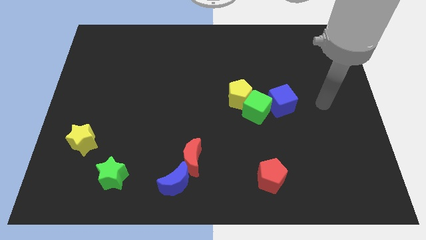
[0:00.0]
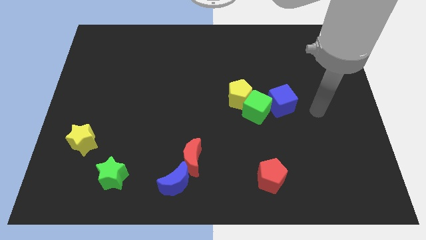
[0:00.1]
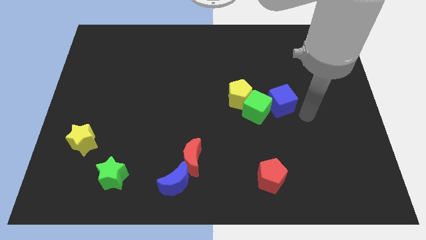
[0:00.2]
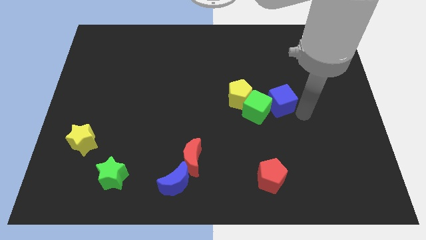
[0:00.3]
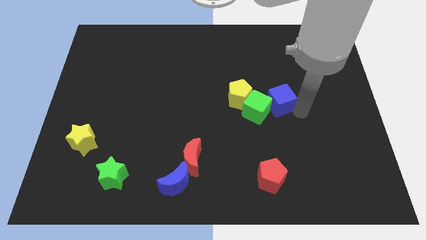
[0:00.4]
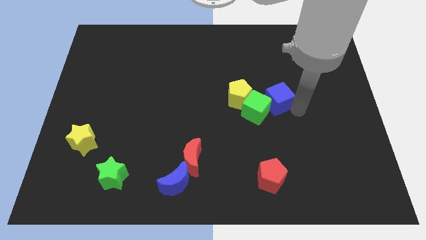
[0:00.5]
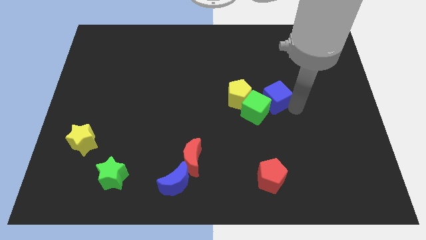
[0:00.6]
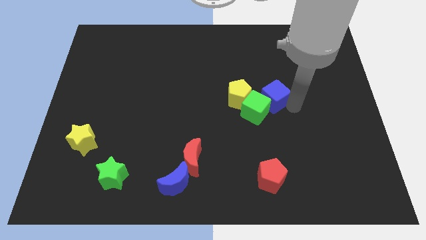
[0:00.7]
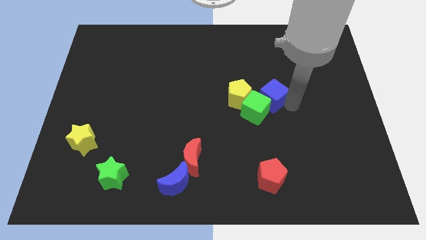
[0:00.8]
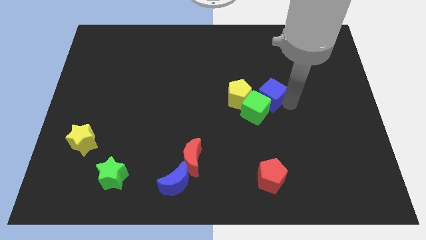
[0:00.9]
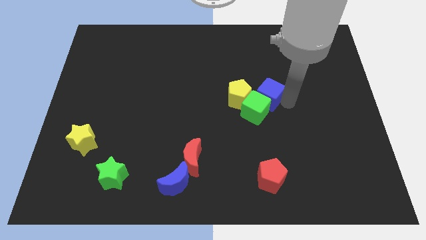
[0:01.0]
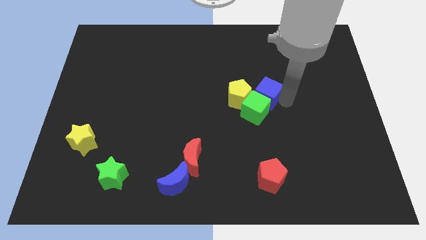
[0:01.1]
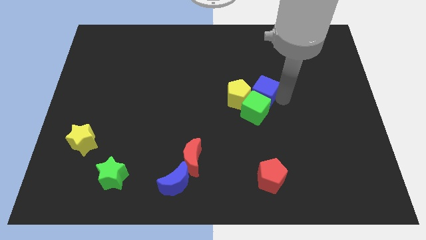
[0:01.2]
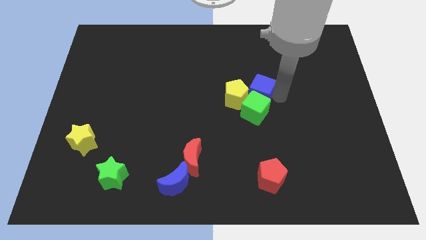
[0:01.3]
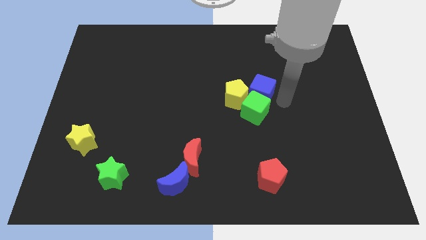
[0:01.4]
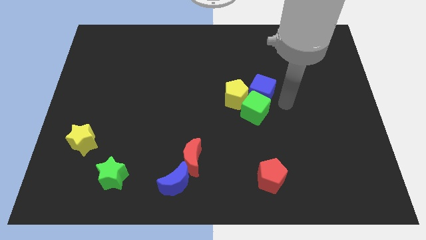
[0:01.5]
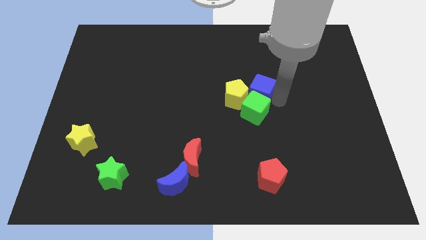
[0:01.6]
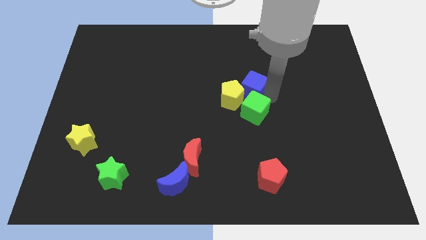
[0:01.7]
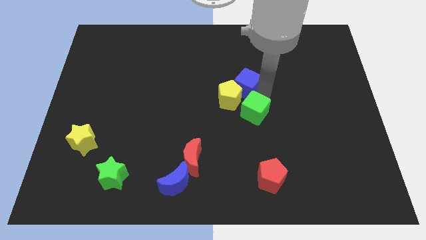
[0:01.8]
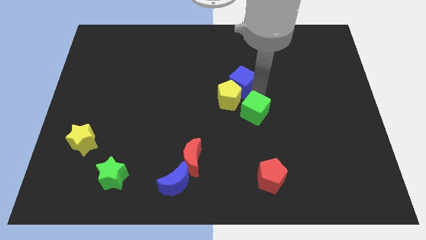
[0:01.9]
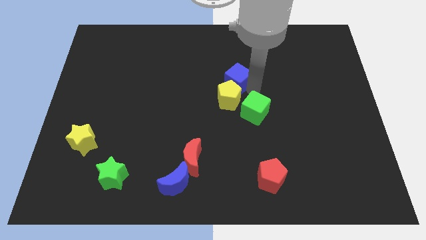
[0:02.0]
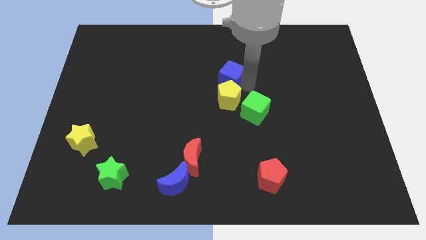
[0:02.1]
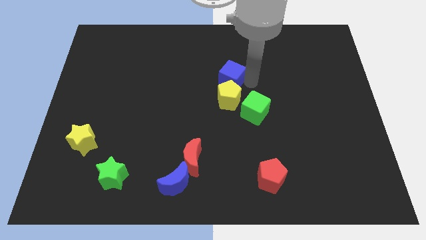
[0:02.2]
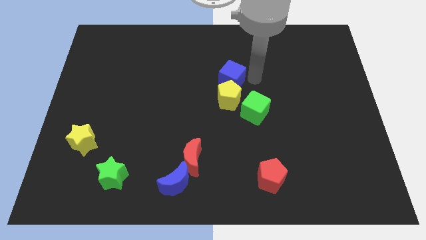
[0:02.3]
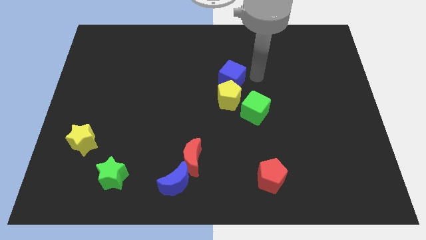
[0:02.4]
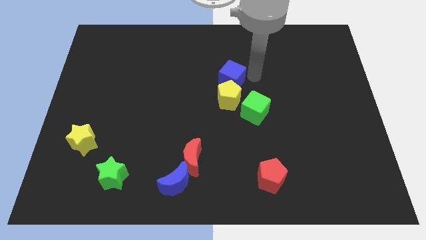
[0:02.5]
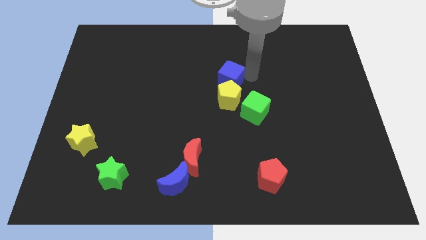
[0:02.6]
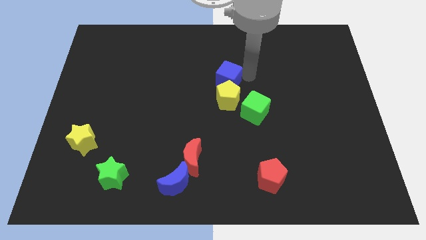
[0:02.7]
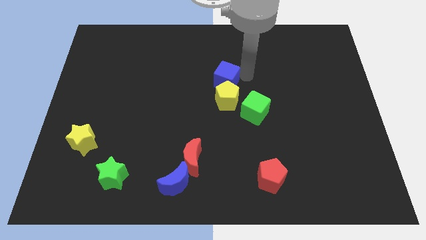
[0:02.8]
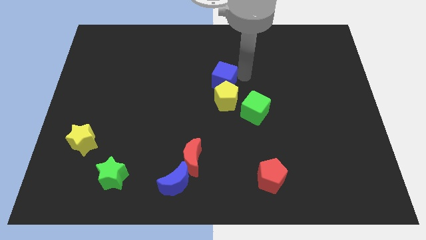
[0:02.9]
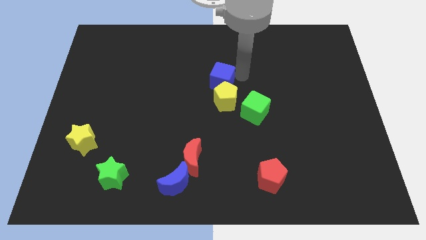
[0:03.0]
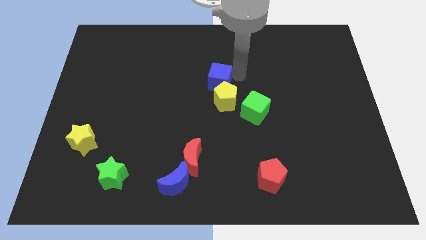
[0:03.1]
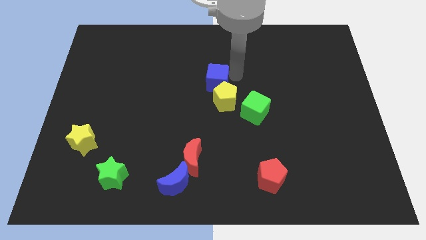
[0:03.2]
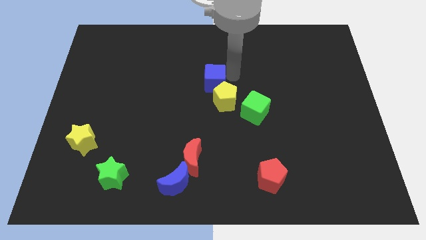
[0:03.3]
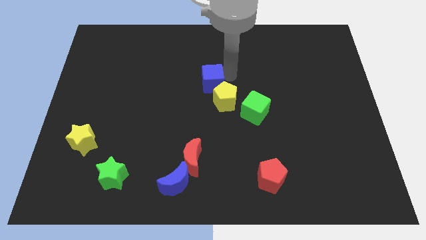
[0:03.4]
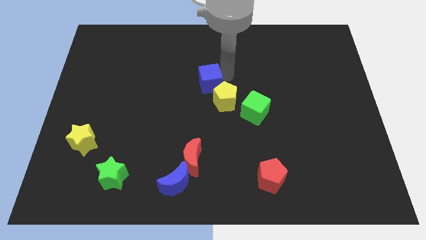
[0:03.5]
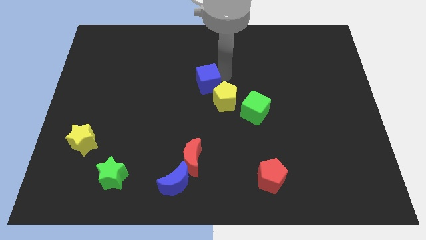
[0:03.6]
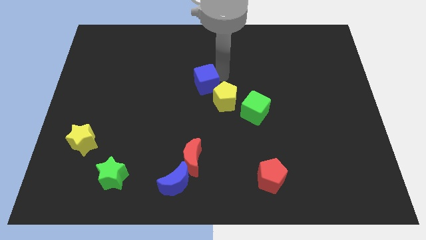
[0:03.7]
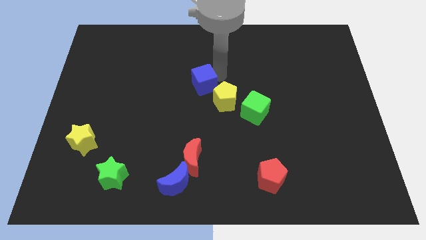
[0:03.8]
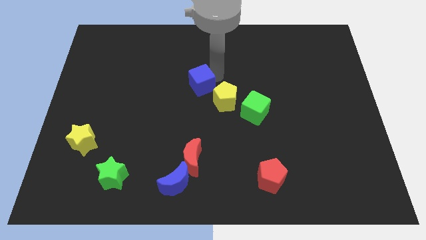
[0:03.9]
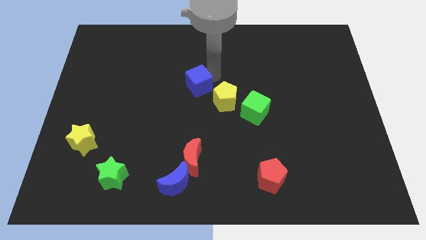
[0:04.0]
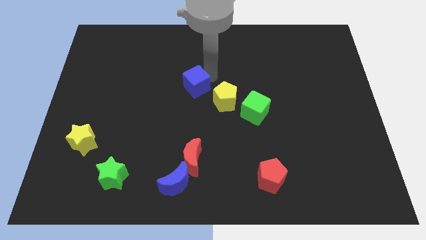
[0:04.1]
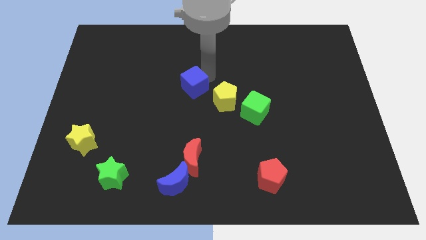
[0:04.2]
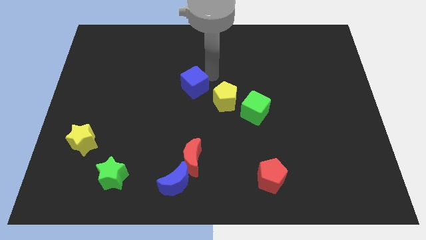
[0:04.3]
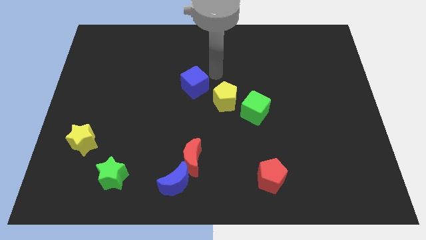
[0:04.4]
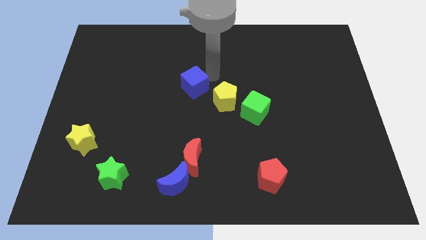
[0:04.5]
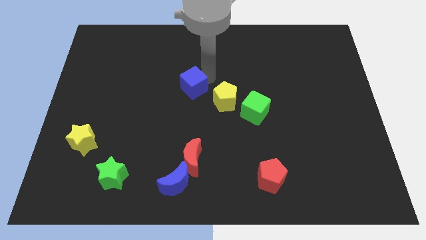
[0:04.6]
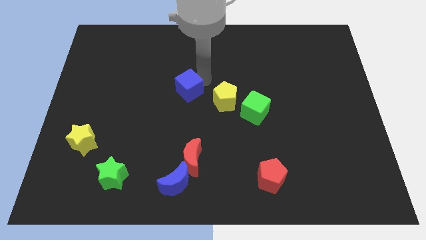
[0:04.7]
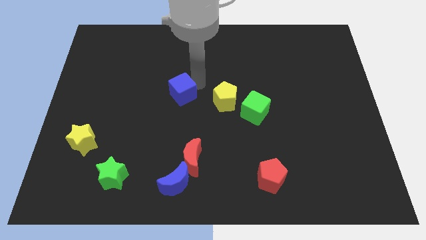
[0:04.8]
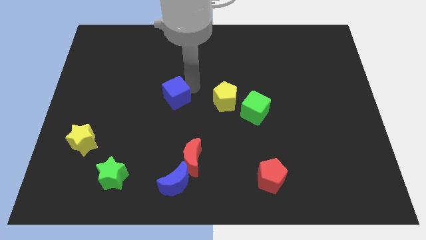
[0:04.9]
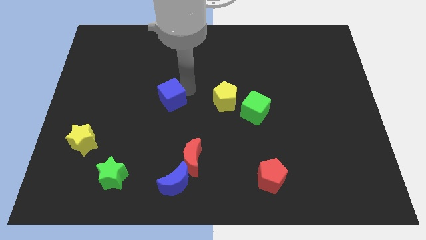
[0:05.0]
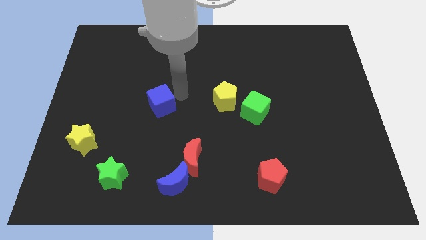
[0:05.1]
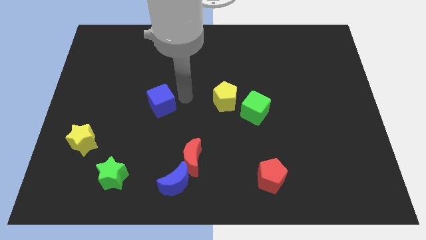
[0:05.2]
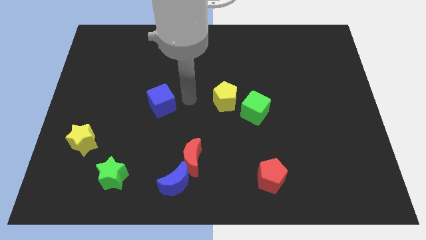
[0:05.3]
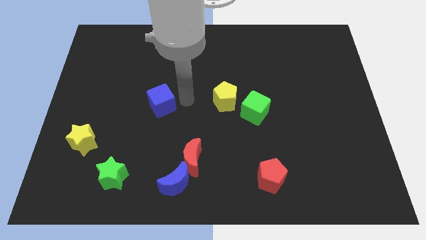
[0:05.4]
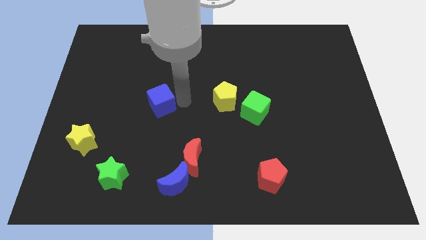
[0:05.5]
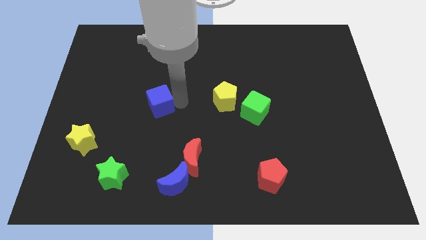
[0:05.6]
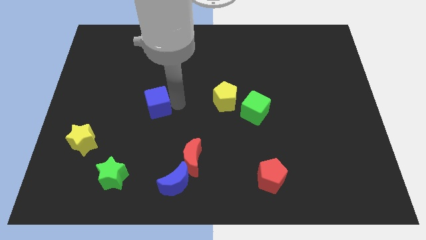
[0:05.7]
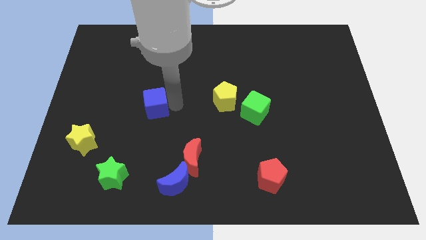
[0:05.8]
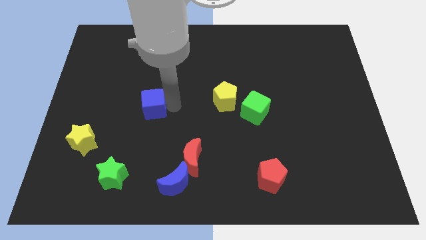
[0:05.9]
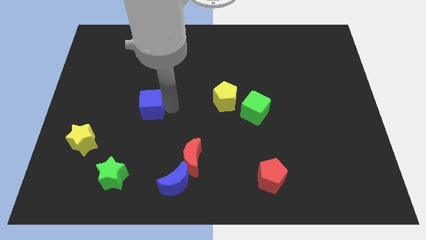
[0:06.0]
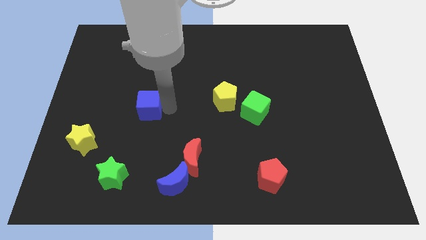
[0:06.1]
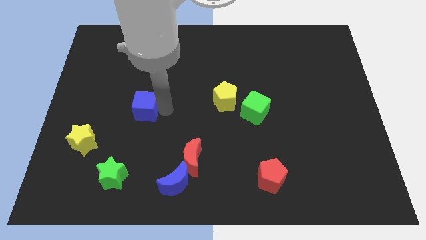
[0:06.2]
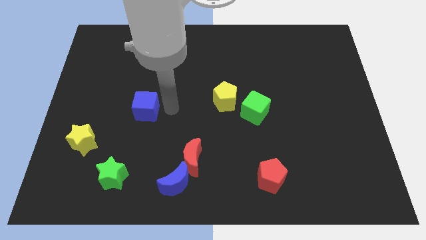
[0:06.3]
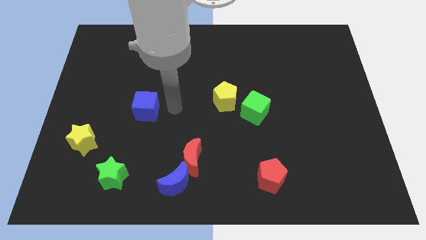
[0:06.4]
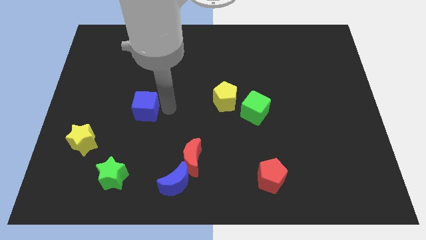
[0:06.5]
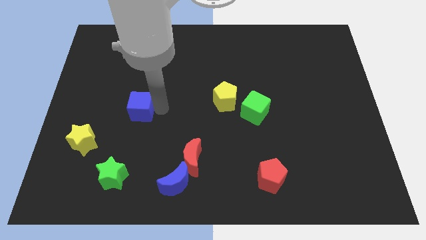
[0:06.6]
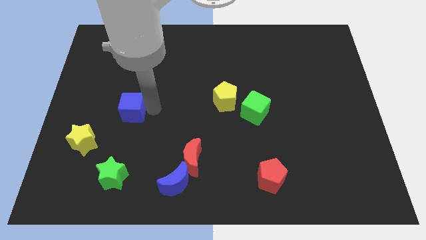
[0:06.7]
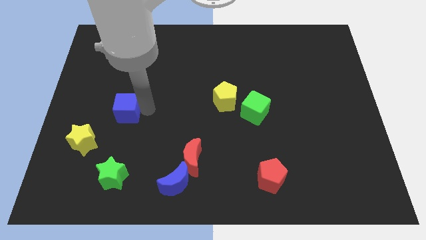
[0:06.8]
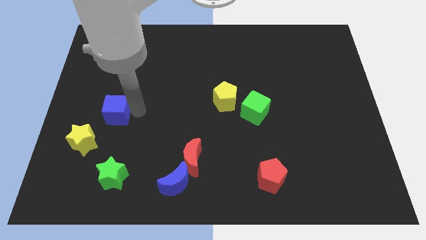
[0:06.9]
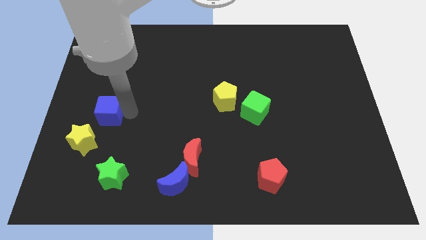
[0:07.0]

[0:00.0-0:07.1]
put the blue cube above the yellow star

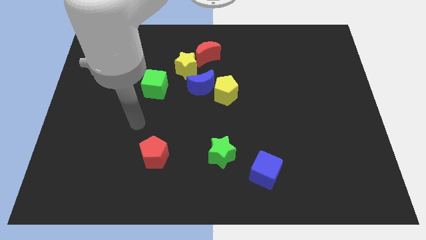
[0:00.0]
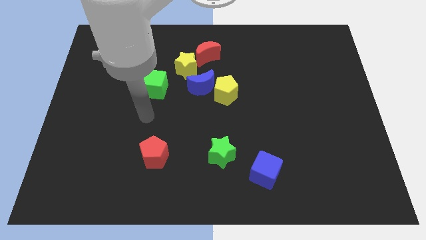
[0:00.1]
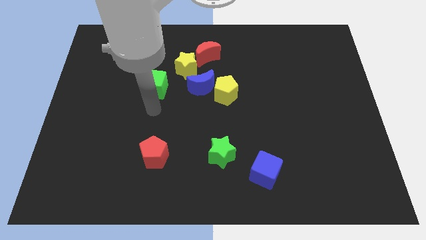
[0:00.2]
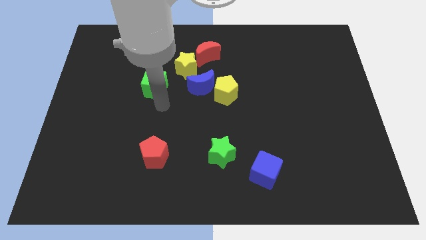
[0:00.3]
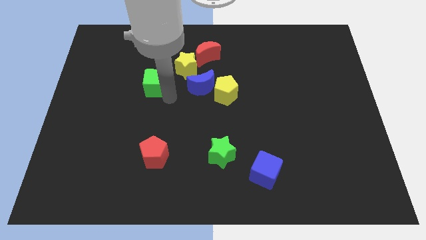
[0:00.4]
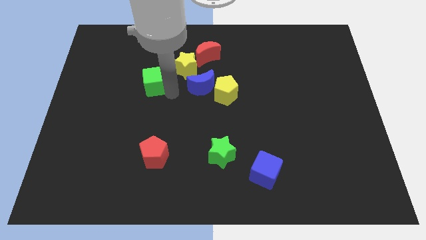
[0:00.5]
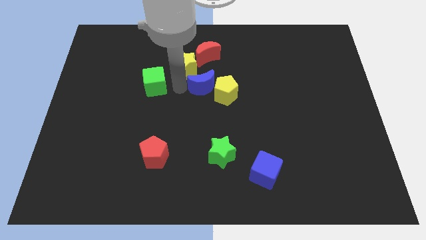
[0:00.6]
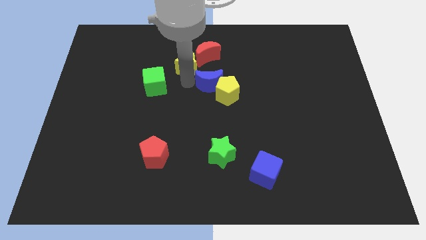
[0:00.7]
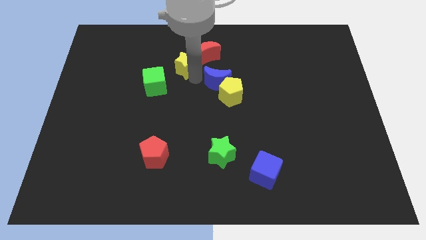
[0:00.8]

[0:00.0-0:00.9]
slide the yellow star to the left side of the blue moon
